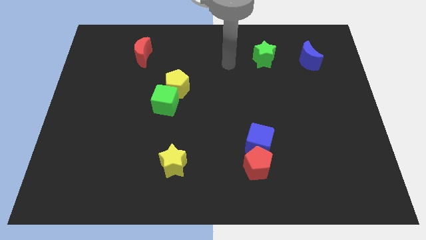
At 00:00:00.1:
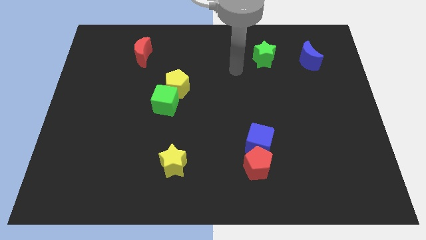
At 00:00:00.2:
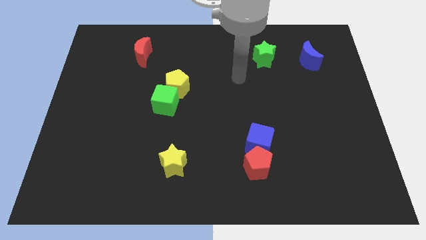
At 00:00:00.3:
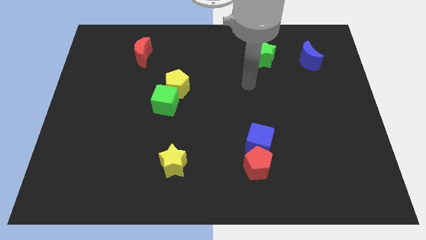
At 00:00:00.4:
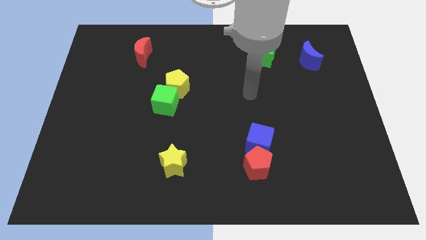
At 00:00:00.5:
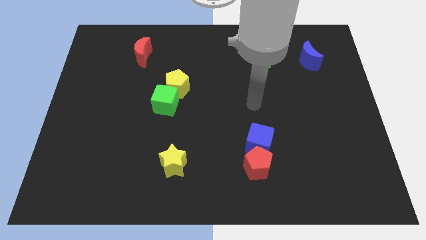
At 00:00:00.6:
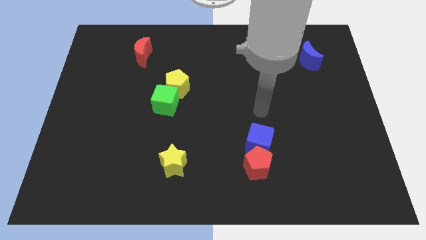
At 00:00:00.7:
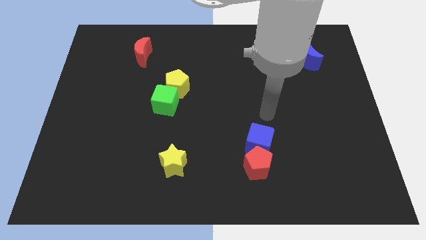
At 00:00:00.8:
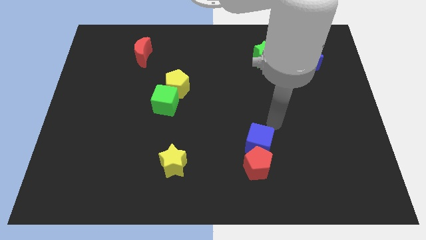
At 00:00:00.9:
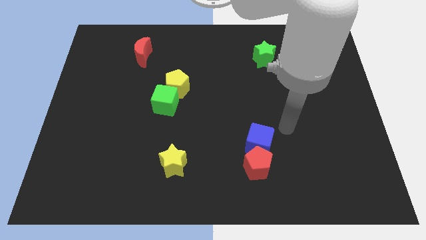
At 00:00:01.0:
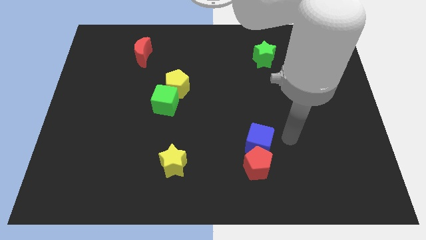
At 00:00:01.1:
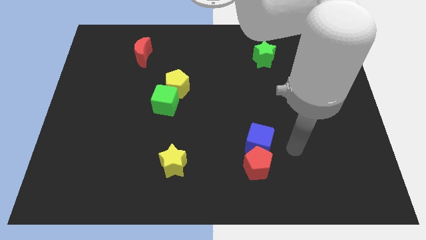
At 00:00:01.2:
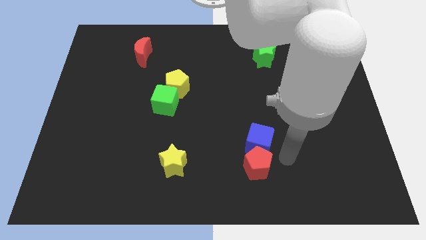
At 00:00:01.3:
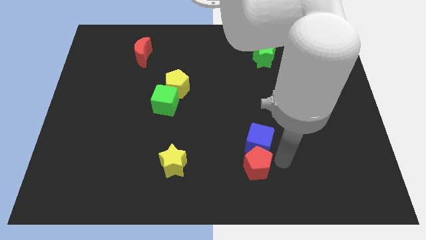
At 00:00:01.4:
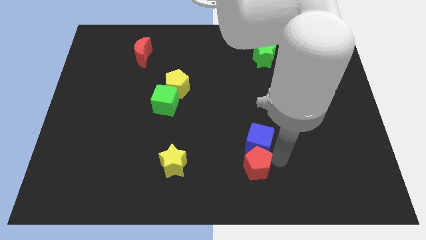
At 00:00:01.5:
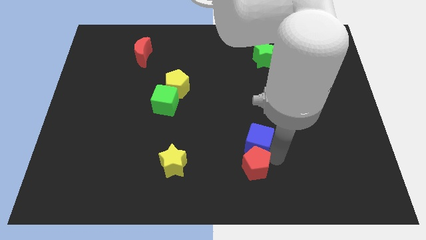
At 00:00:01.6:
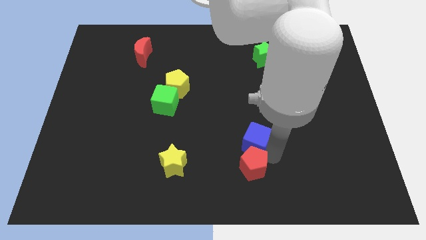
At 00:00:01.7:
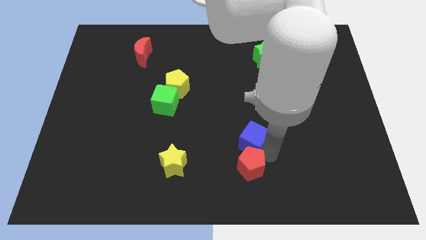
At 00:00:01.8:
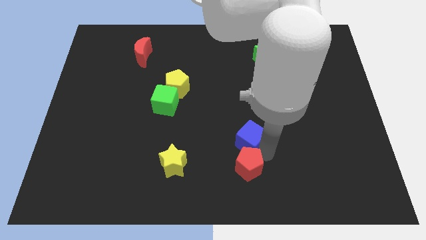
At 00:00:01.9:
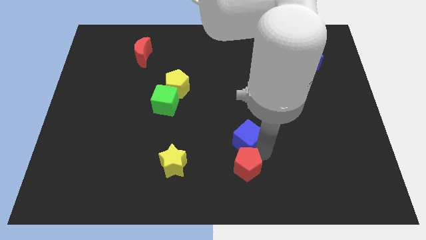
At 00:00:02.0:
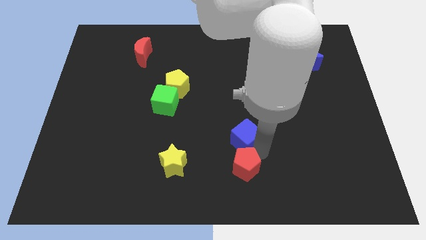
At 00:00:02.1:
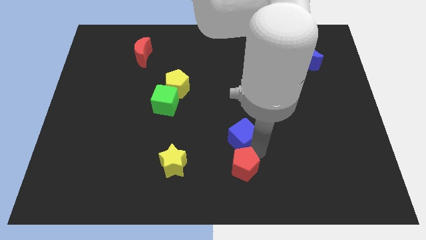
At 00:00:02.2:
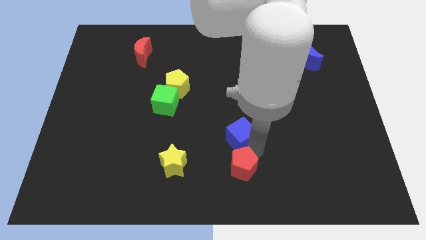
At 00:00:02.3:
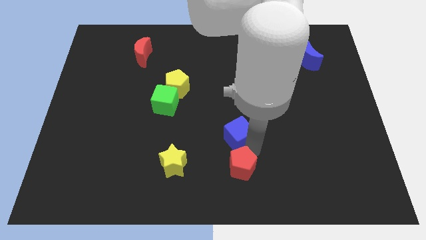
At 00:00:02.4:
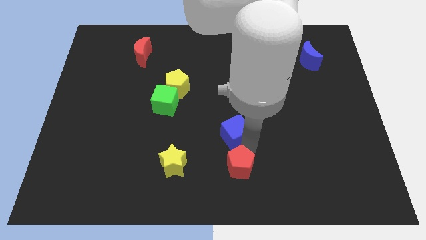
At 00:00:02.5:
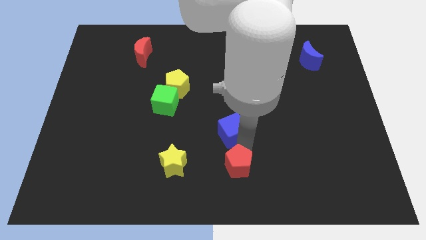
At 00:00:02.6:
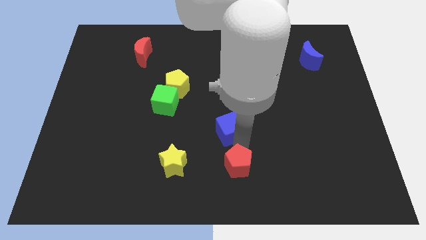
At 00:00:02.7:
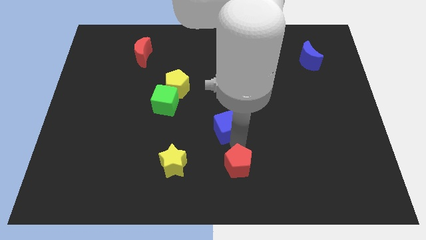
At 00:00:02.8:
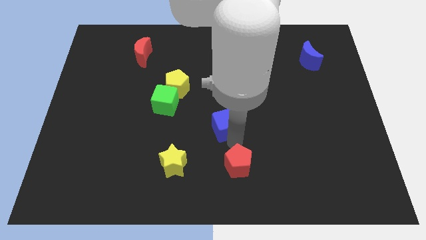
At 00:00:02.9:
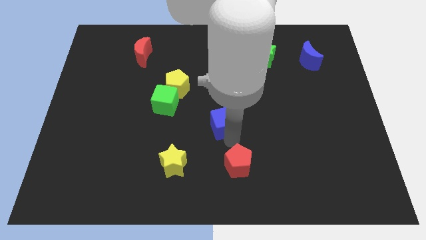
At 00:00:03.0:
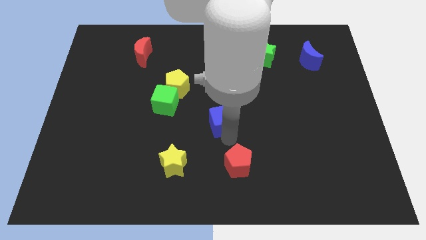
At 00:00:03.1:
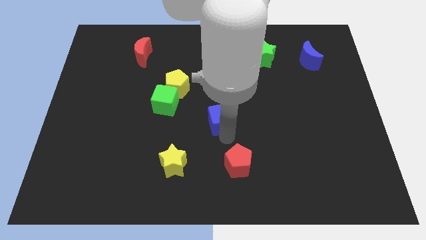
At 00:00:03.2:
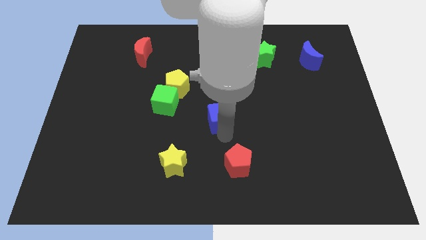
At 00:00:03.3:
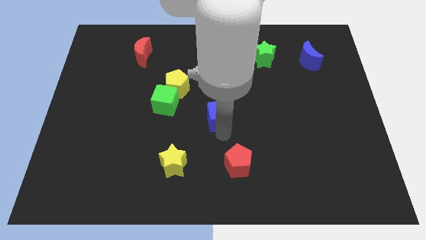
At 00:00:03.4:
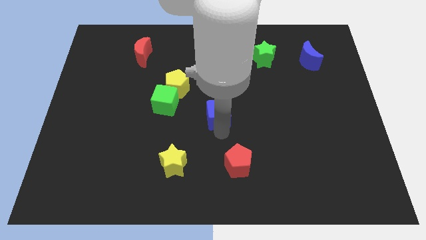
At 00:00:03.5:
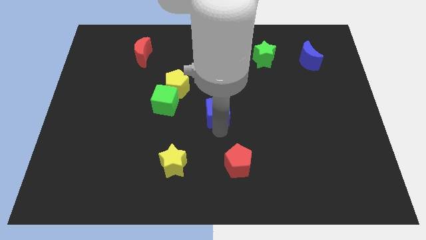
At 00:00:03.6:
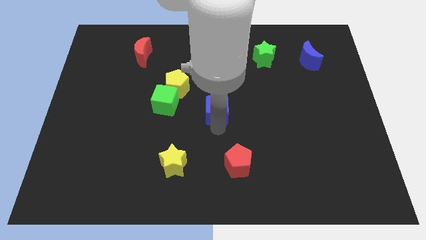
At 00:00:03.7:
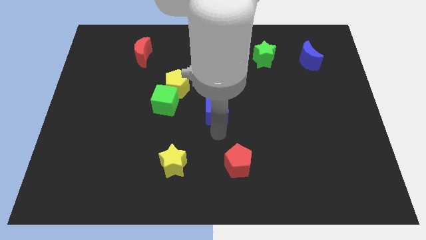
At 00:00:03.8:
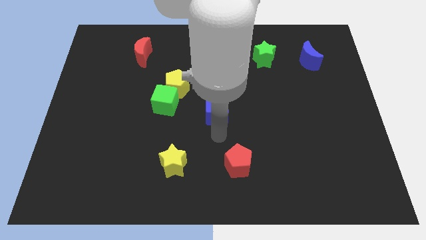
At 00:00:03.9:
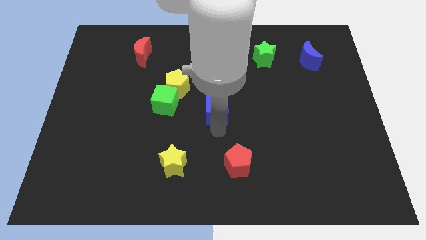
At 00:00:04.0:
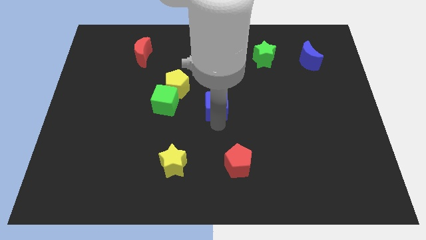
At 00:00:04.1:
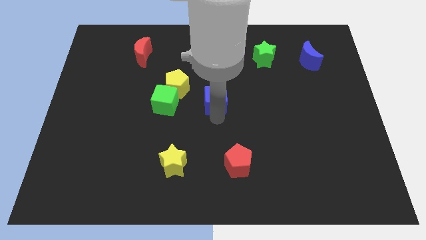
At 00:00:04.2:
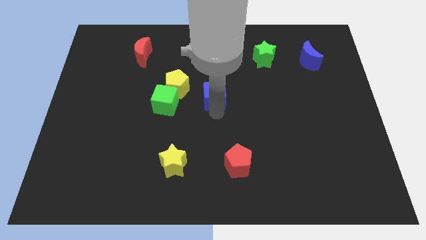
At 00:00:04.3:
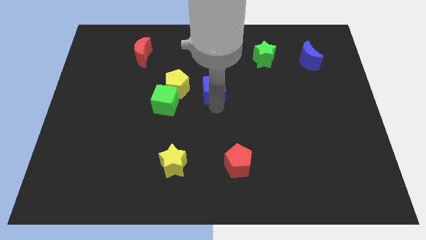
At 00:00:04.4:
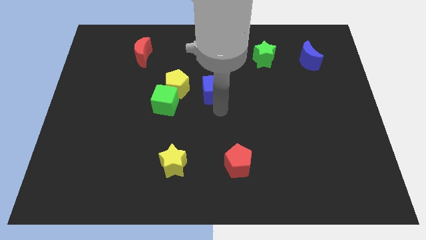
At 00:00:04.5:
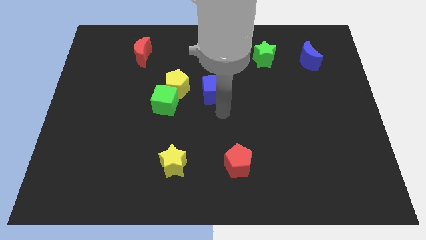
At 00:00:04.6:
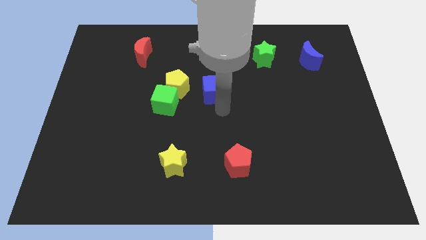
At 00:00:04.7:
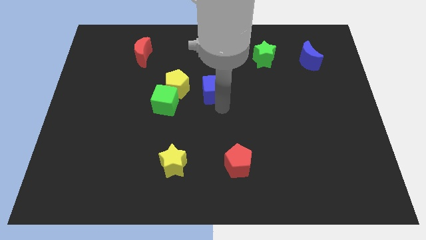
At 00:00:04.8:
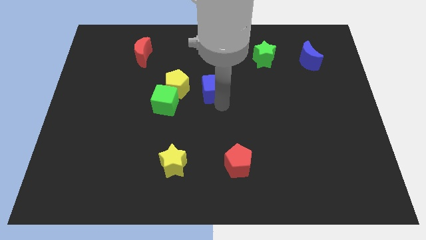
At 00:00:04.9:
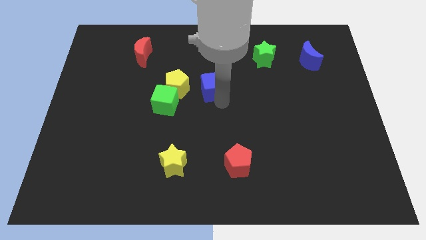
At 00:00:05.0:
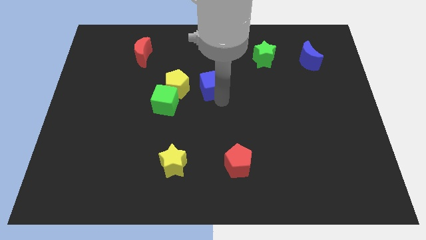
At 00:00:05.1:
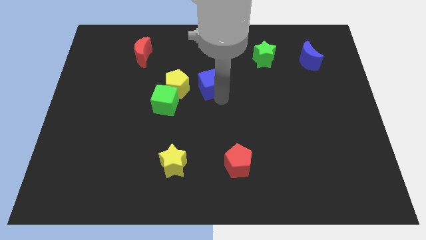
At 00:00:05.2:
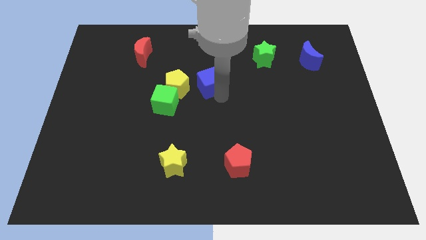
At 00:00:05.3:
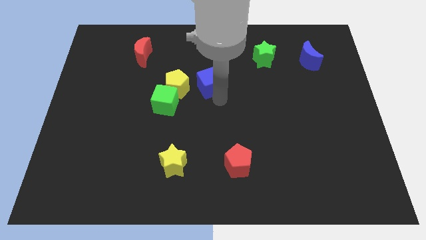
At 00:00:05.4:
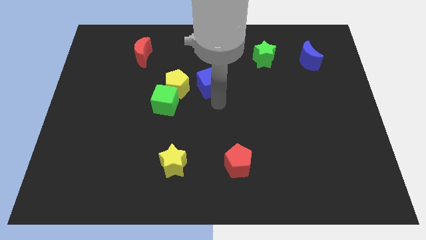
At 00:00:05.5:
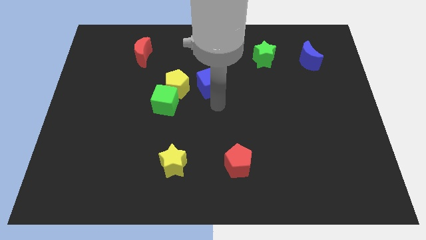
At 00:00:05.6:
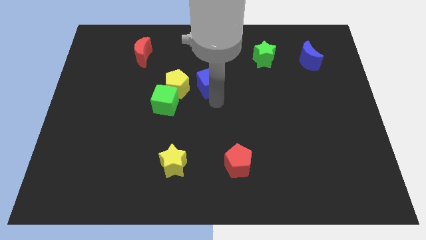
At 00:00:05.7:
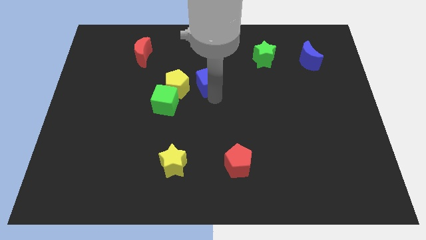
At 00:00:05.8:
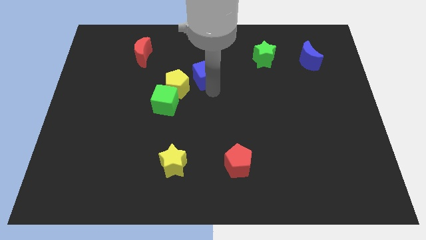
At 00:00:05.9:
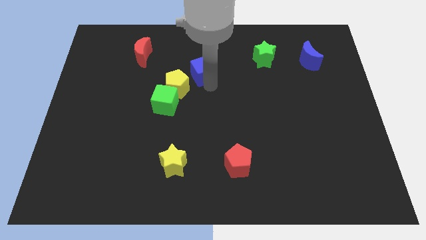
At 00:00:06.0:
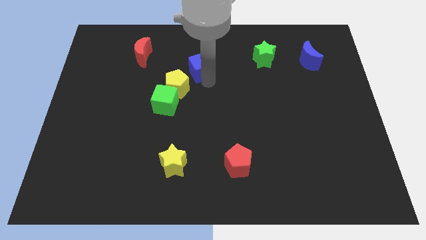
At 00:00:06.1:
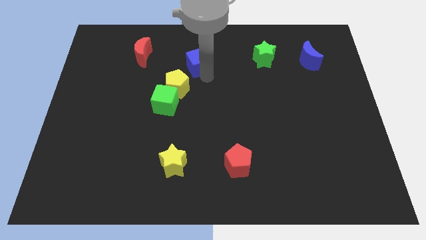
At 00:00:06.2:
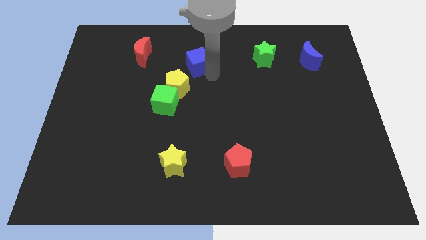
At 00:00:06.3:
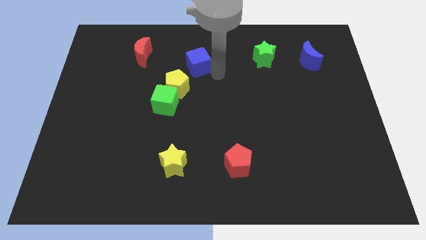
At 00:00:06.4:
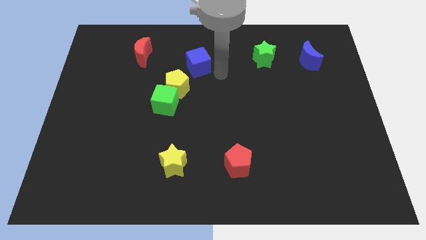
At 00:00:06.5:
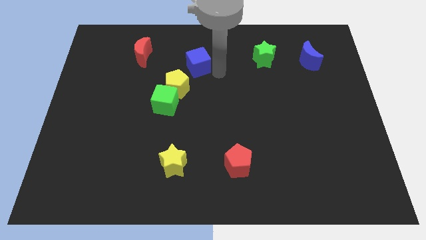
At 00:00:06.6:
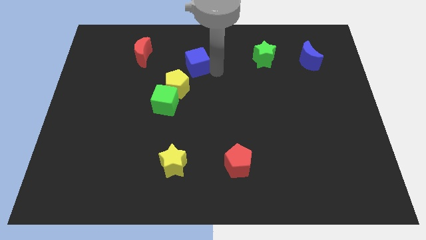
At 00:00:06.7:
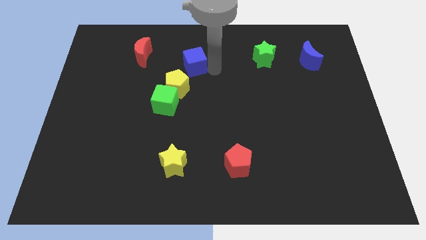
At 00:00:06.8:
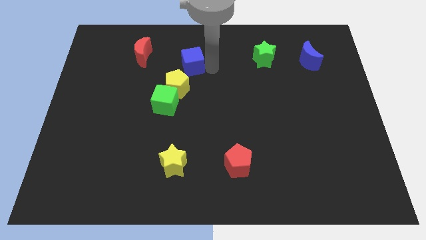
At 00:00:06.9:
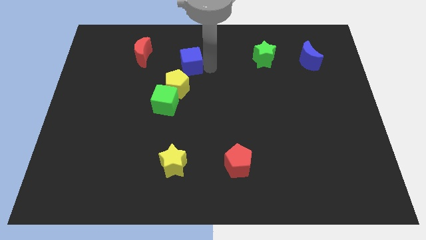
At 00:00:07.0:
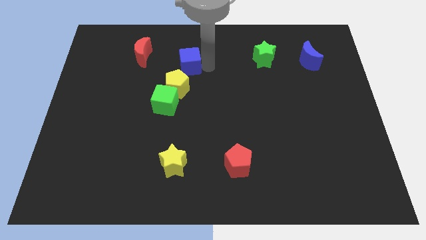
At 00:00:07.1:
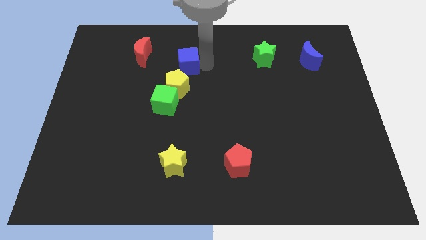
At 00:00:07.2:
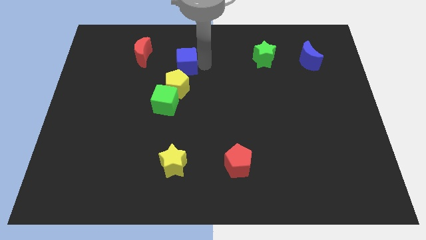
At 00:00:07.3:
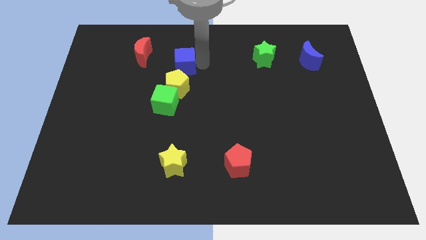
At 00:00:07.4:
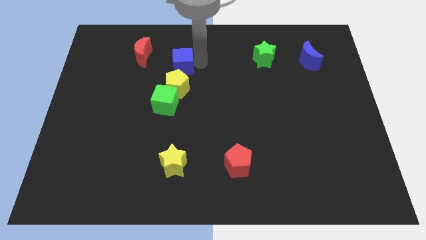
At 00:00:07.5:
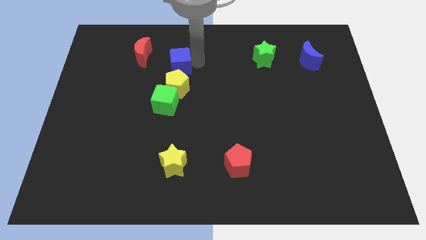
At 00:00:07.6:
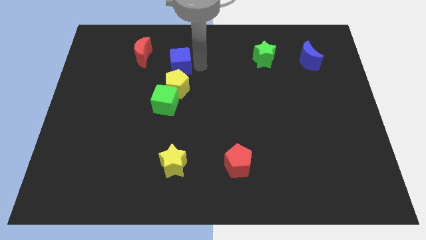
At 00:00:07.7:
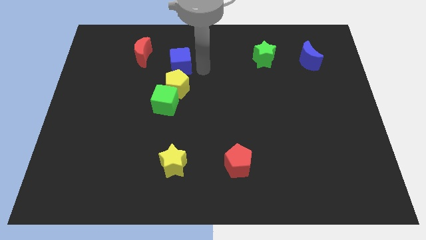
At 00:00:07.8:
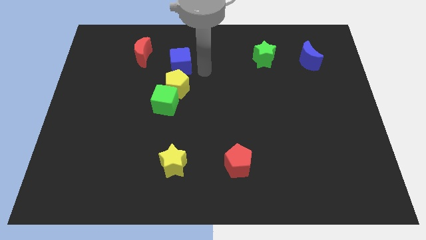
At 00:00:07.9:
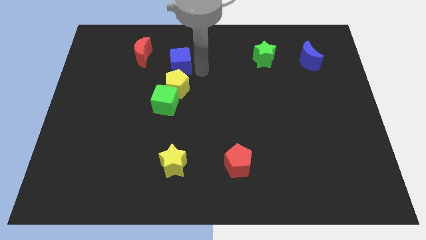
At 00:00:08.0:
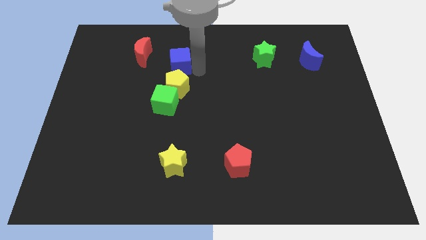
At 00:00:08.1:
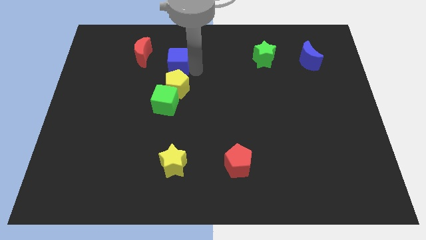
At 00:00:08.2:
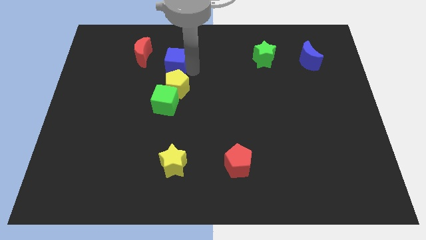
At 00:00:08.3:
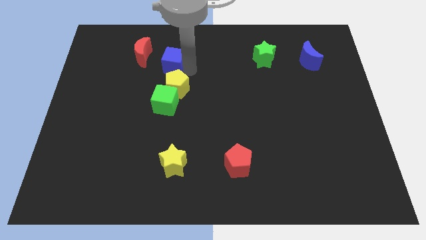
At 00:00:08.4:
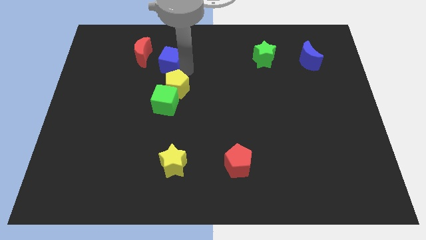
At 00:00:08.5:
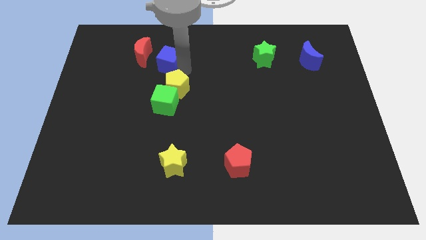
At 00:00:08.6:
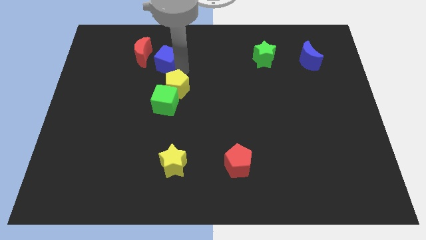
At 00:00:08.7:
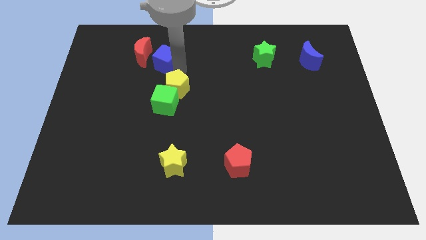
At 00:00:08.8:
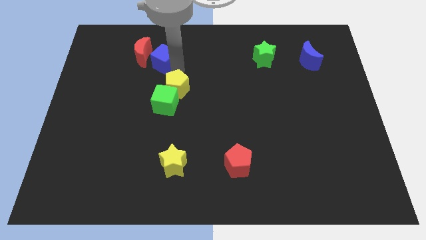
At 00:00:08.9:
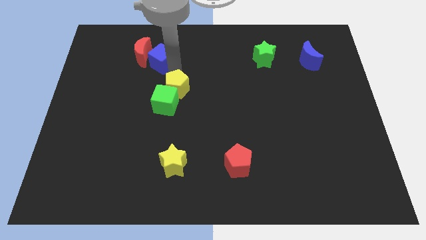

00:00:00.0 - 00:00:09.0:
slide the blue cube close to the red moon
